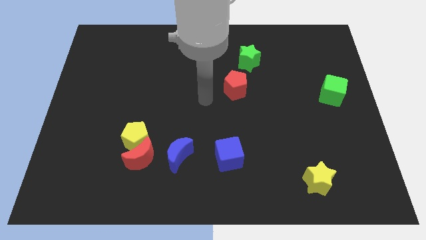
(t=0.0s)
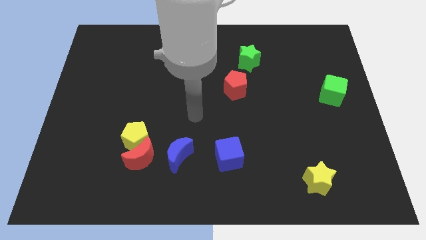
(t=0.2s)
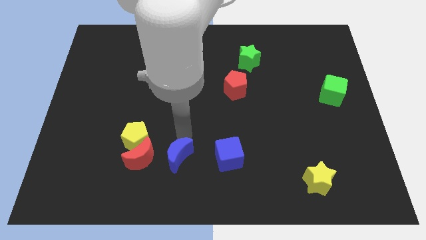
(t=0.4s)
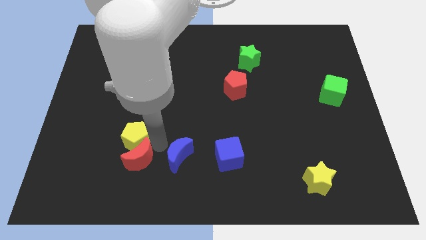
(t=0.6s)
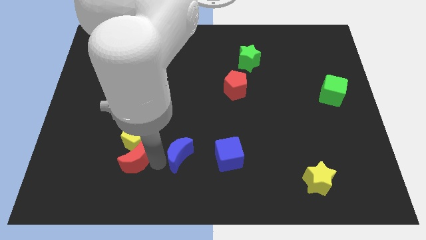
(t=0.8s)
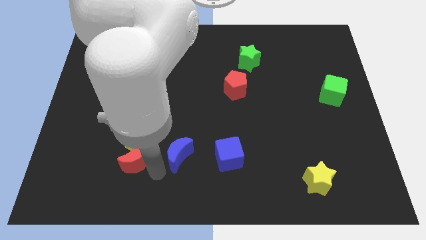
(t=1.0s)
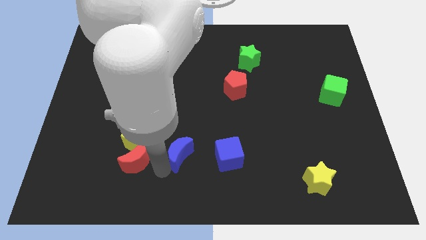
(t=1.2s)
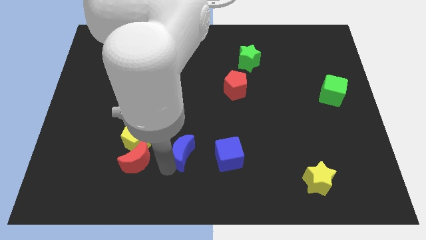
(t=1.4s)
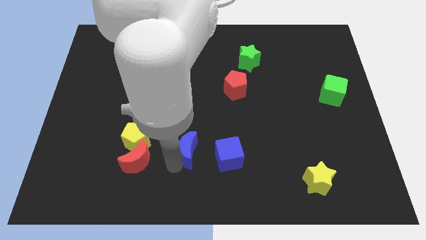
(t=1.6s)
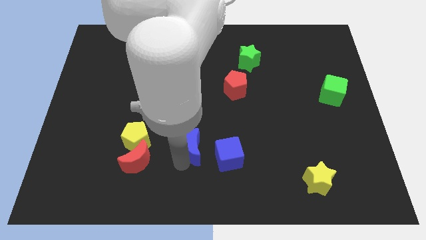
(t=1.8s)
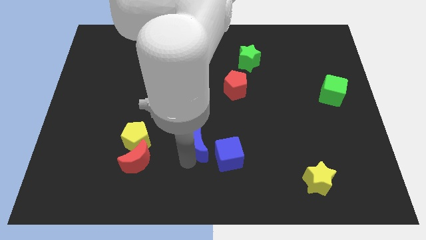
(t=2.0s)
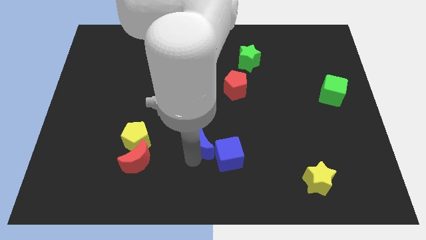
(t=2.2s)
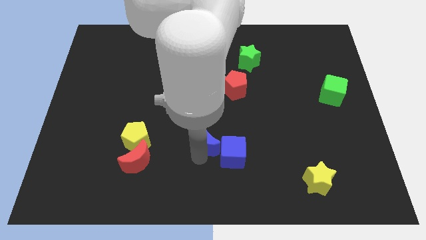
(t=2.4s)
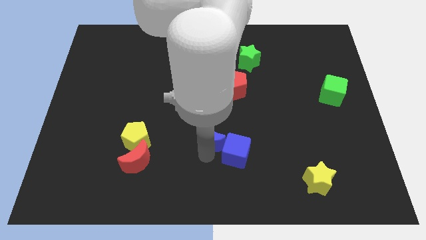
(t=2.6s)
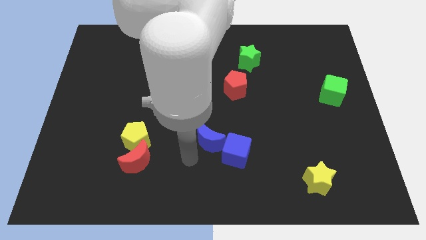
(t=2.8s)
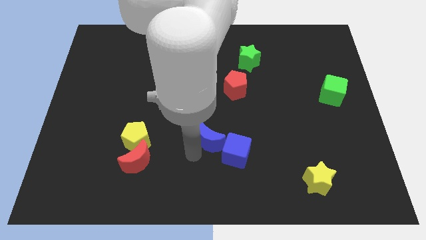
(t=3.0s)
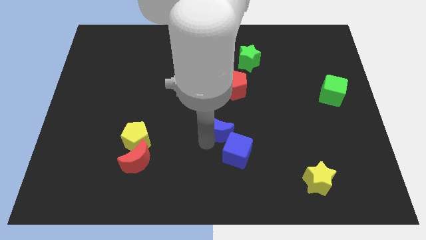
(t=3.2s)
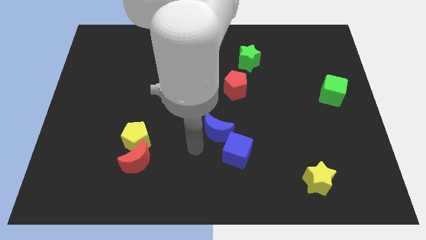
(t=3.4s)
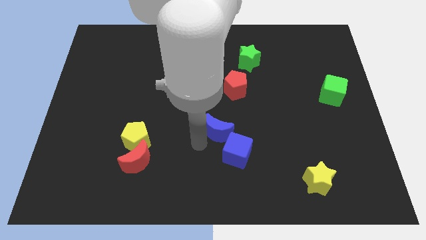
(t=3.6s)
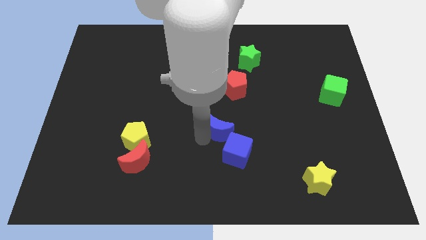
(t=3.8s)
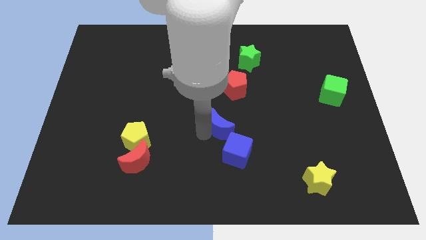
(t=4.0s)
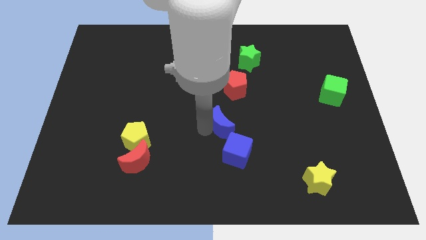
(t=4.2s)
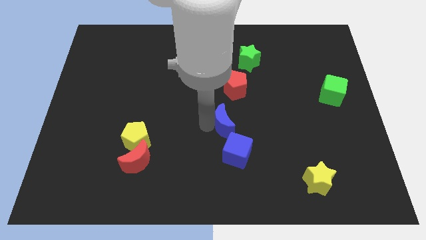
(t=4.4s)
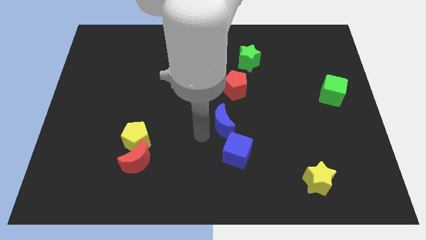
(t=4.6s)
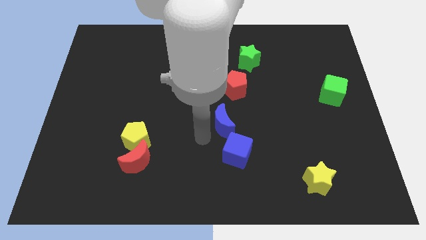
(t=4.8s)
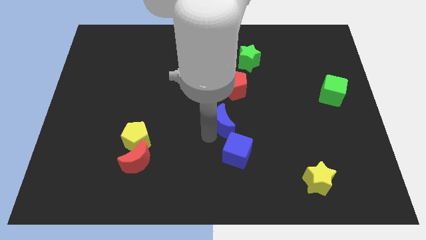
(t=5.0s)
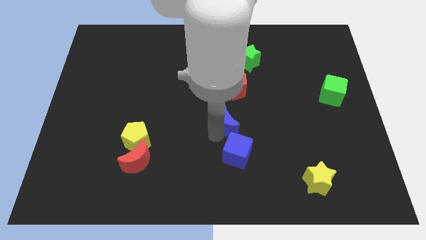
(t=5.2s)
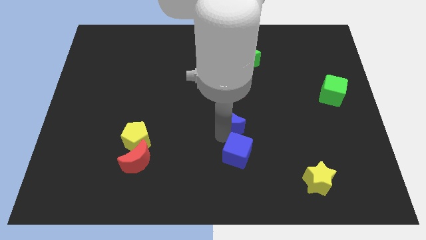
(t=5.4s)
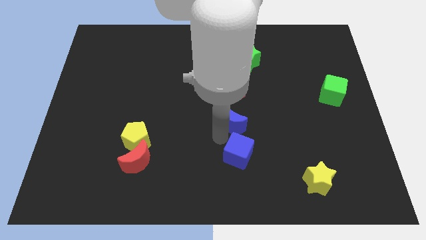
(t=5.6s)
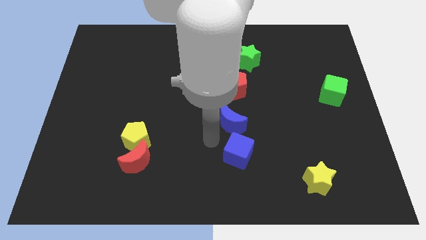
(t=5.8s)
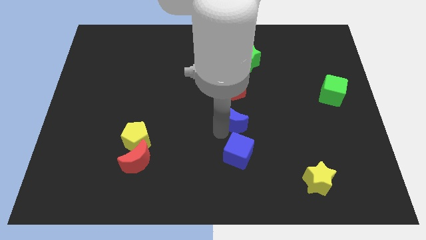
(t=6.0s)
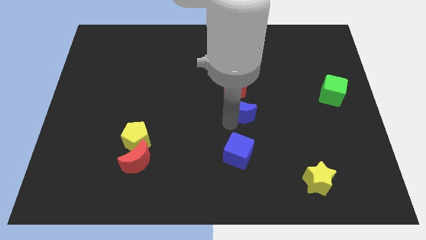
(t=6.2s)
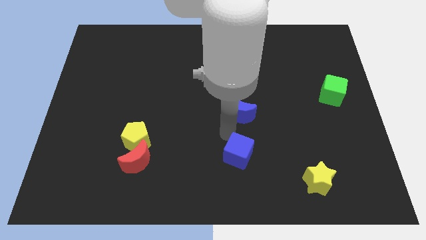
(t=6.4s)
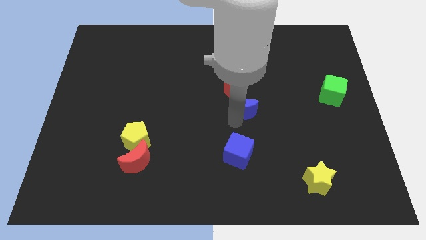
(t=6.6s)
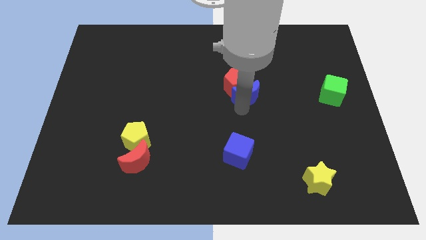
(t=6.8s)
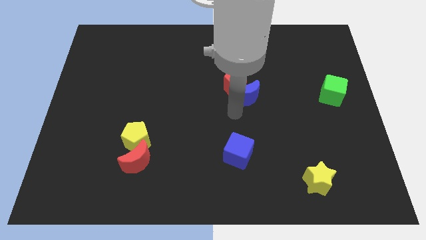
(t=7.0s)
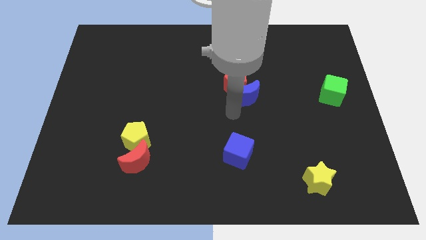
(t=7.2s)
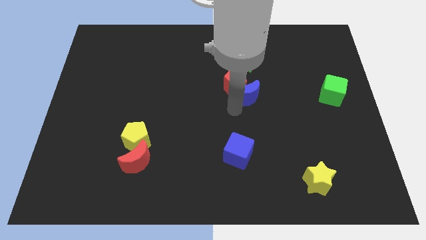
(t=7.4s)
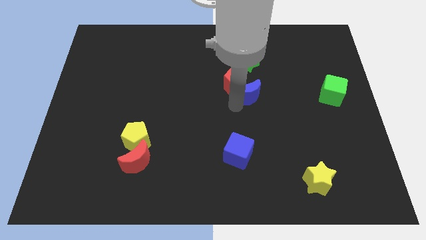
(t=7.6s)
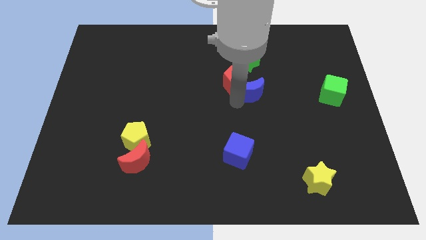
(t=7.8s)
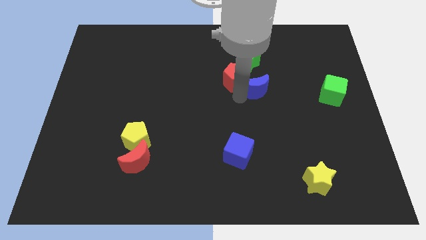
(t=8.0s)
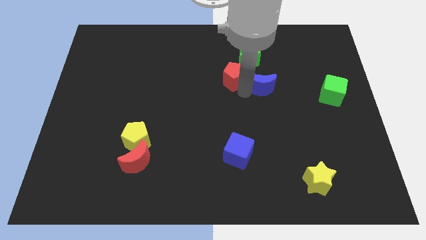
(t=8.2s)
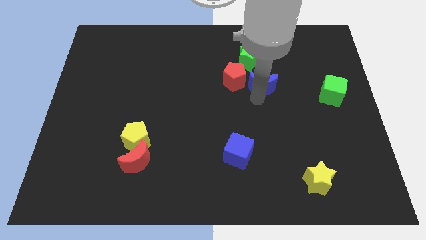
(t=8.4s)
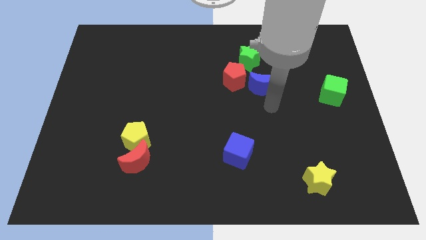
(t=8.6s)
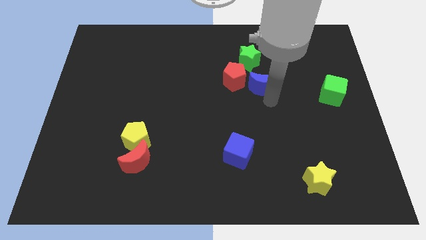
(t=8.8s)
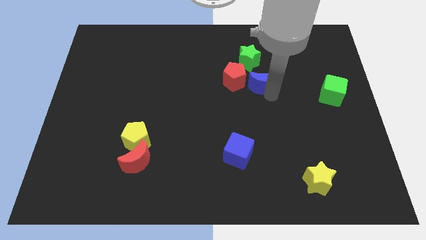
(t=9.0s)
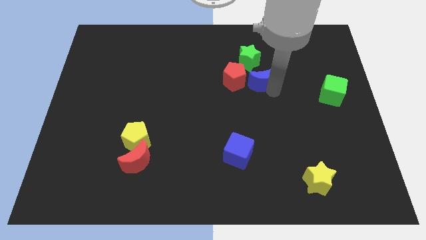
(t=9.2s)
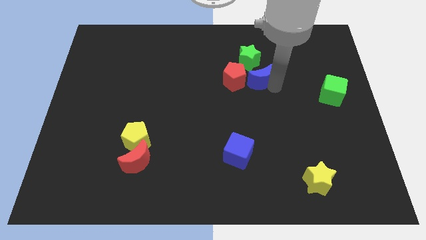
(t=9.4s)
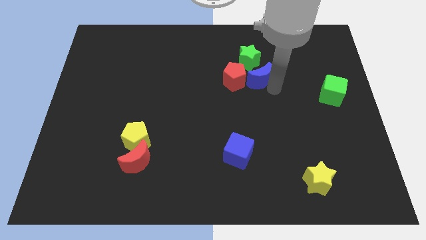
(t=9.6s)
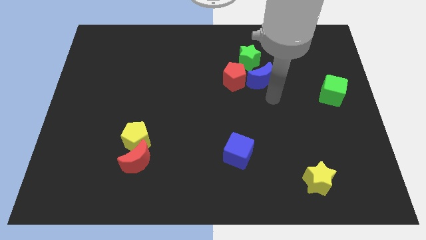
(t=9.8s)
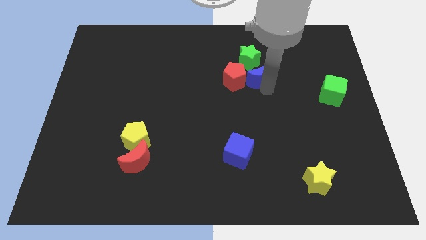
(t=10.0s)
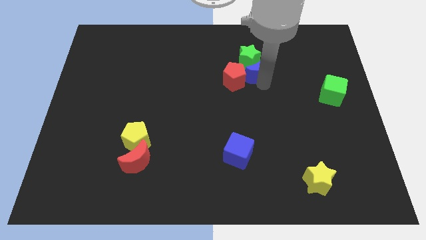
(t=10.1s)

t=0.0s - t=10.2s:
push the blue moon next to the green star

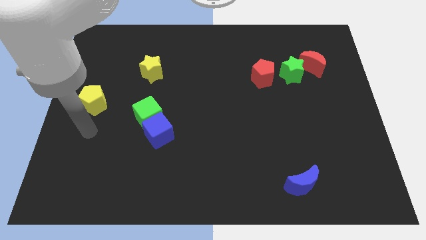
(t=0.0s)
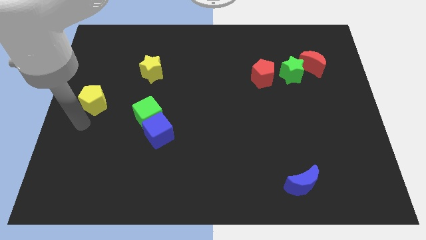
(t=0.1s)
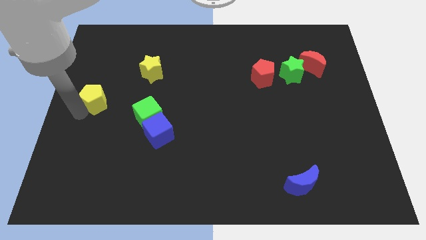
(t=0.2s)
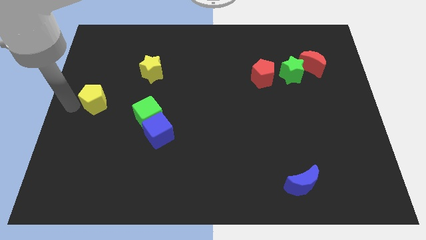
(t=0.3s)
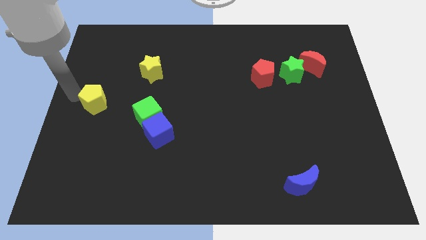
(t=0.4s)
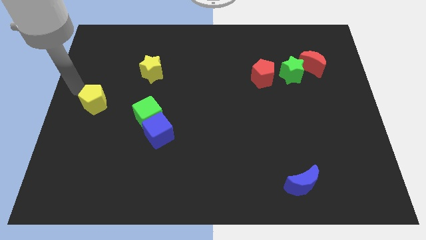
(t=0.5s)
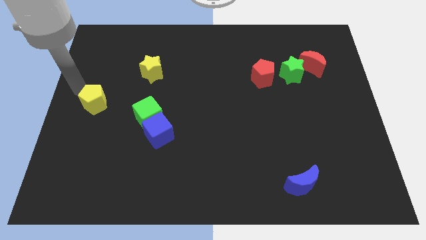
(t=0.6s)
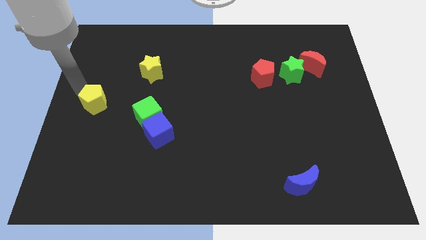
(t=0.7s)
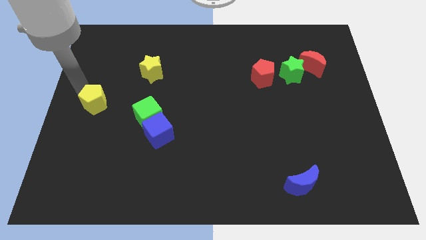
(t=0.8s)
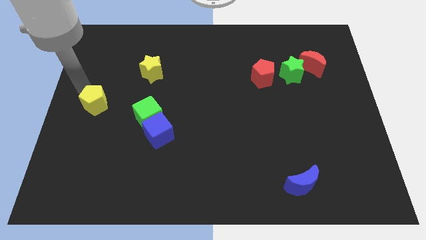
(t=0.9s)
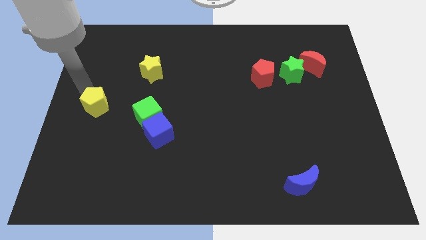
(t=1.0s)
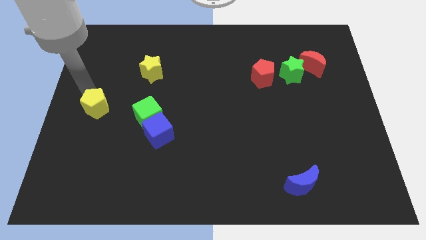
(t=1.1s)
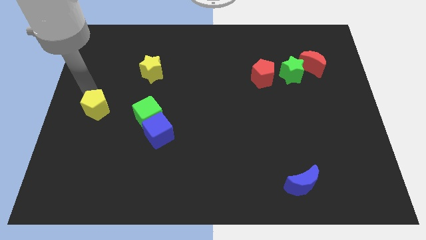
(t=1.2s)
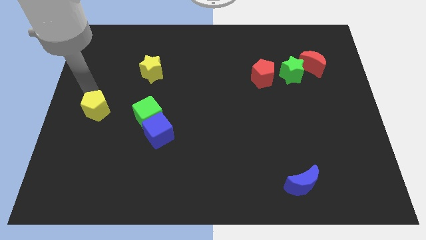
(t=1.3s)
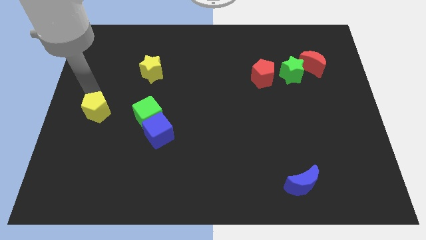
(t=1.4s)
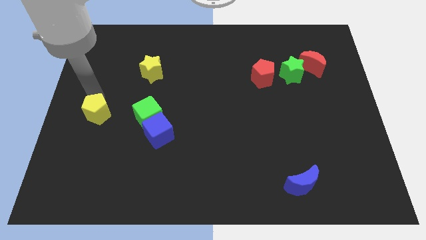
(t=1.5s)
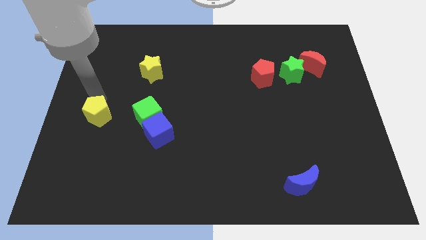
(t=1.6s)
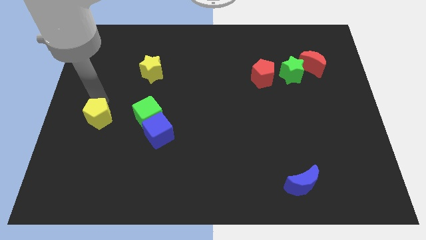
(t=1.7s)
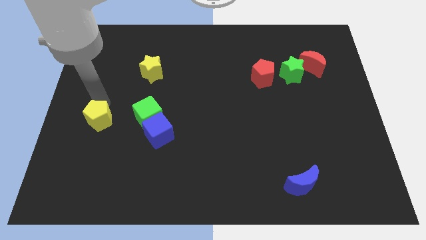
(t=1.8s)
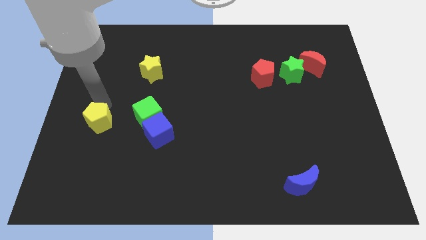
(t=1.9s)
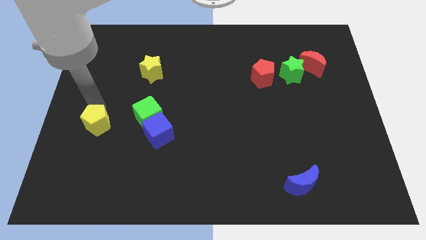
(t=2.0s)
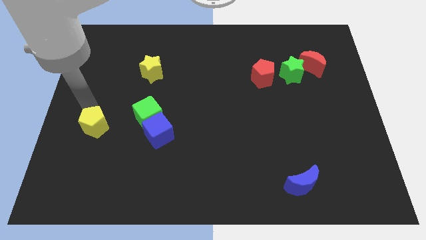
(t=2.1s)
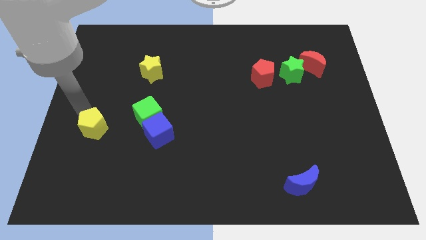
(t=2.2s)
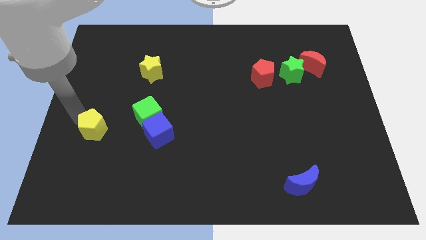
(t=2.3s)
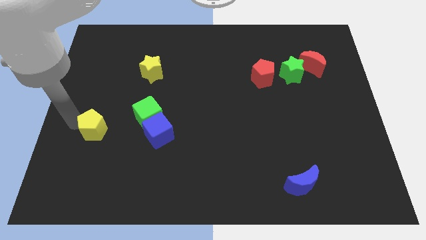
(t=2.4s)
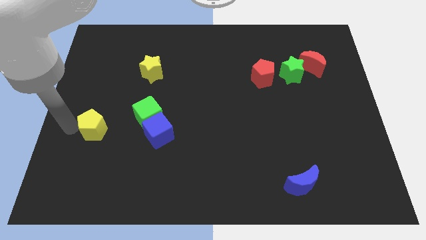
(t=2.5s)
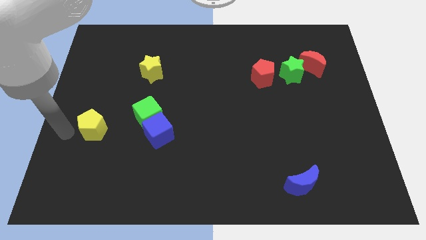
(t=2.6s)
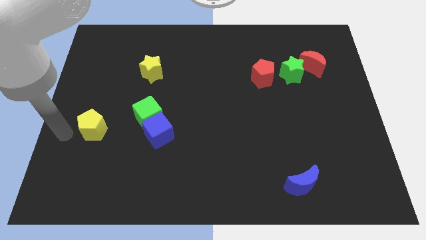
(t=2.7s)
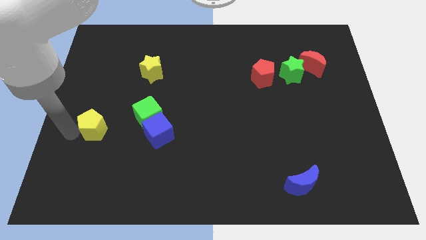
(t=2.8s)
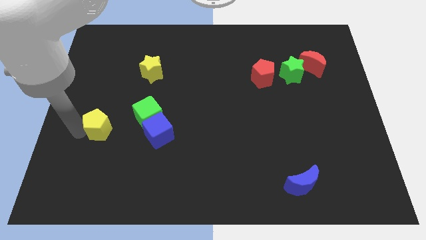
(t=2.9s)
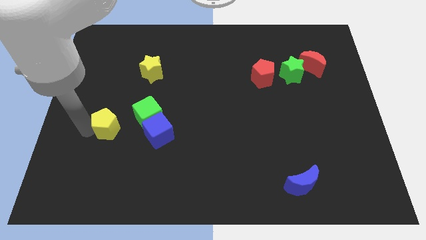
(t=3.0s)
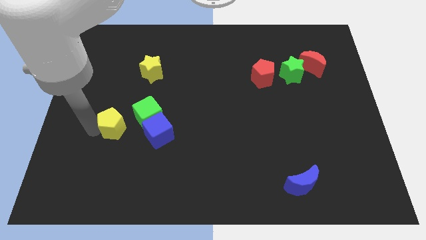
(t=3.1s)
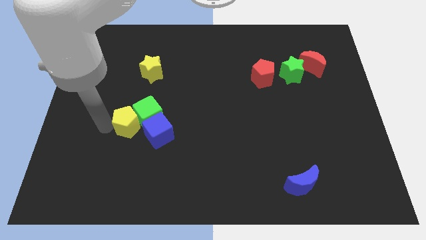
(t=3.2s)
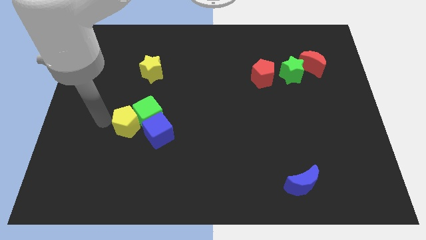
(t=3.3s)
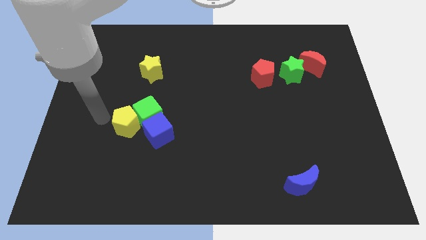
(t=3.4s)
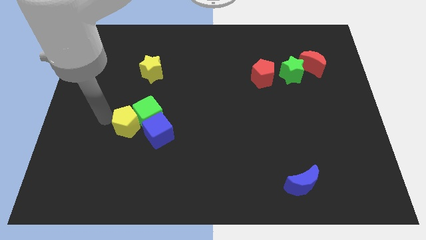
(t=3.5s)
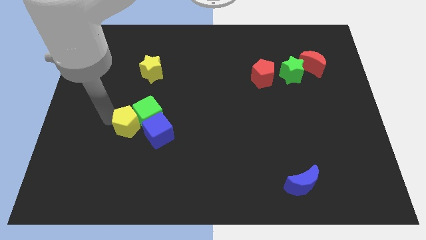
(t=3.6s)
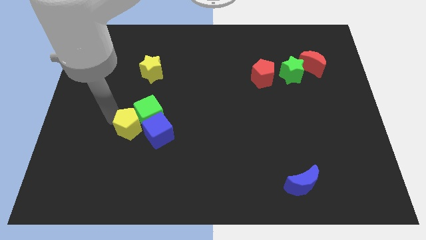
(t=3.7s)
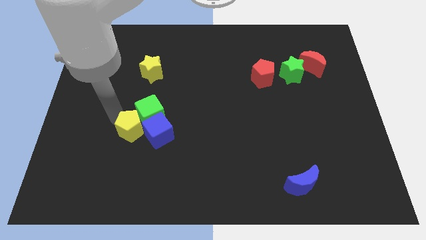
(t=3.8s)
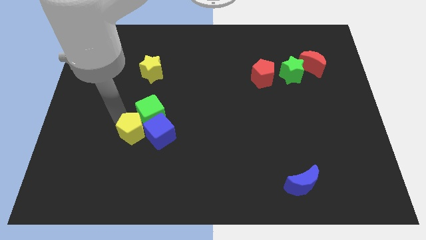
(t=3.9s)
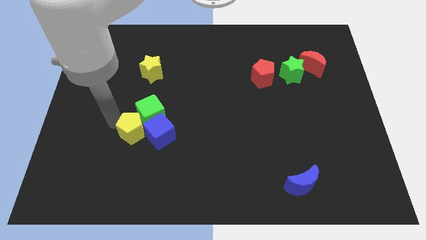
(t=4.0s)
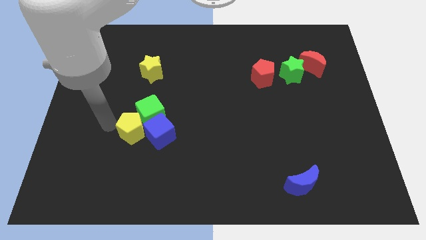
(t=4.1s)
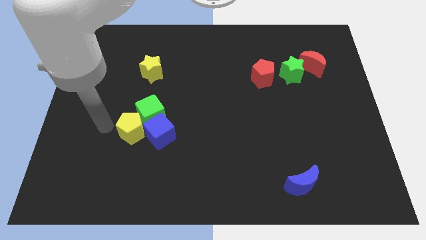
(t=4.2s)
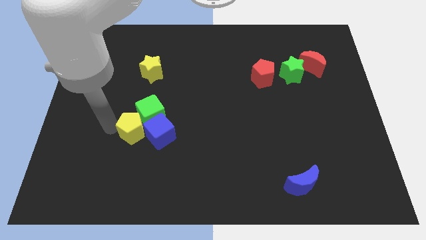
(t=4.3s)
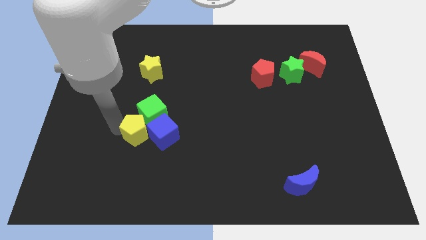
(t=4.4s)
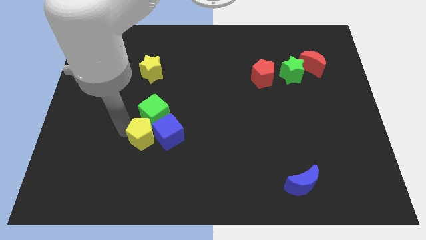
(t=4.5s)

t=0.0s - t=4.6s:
move the yellow pentagon next to the blue cube
